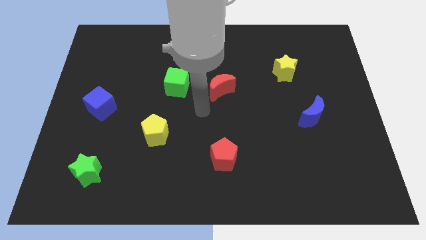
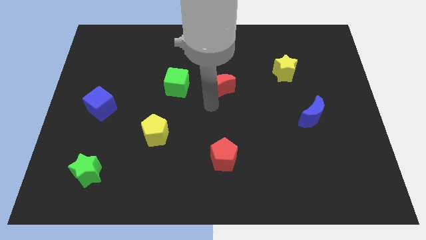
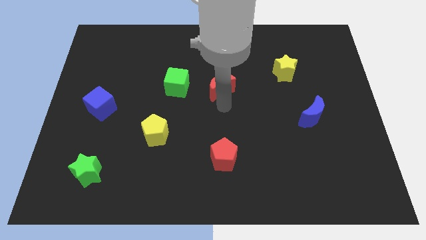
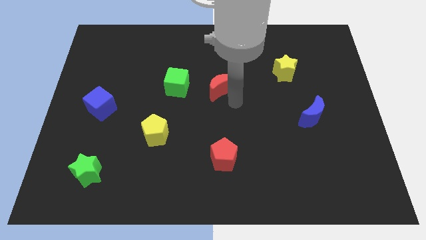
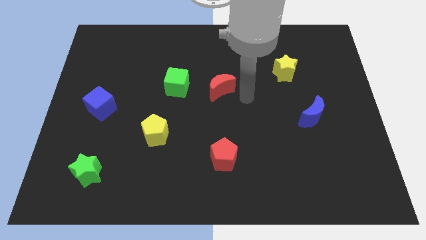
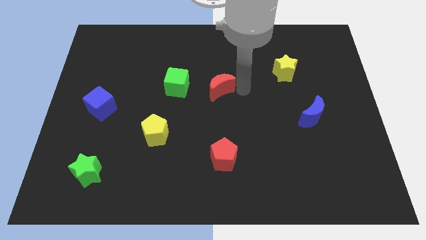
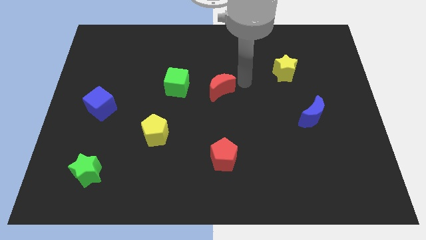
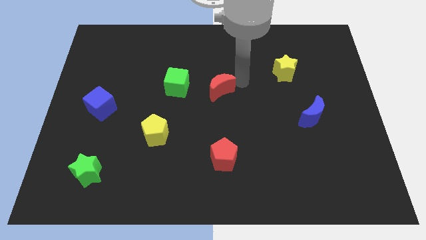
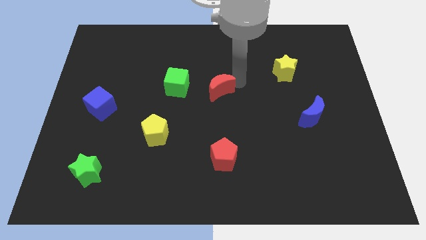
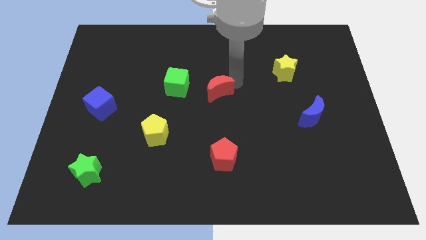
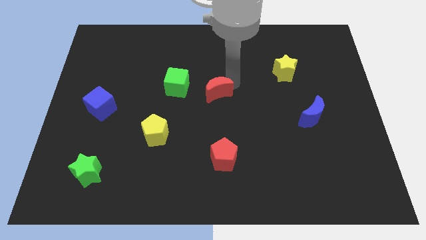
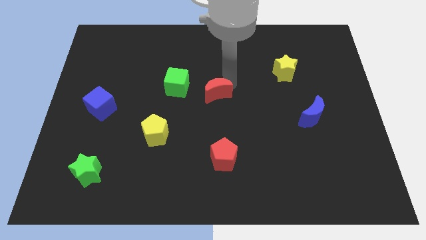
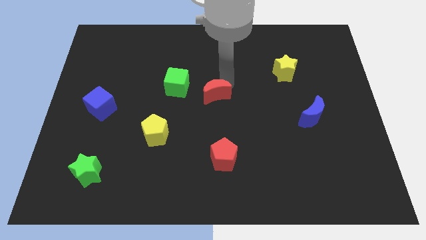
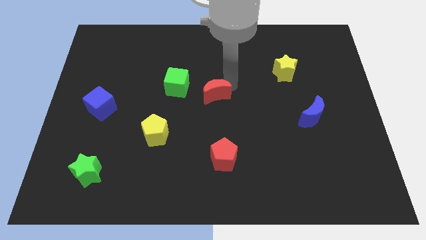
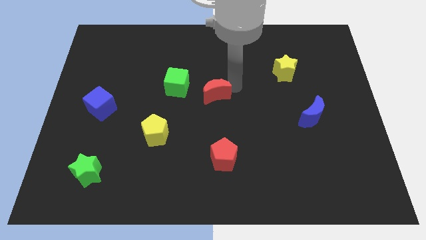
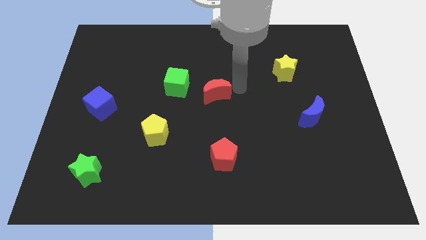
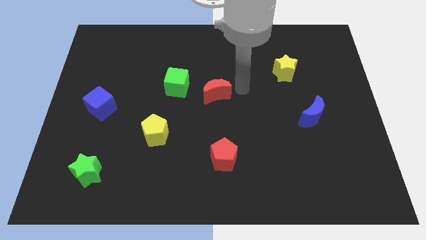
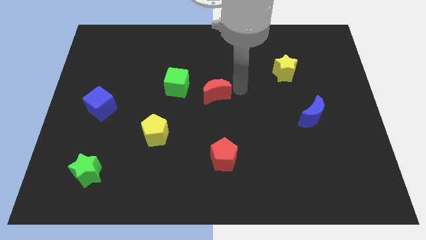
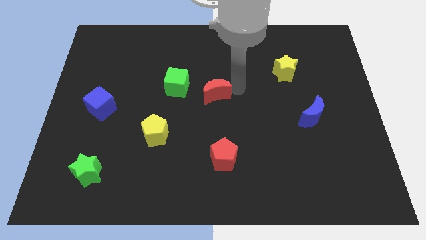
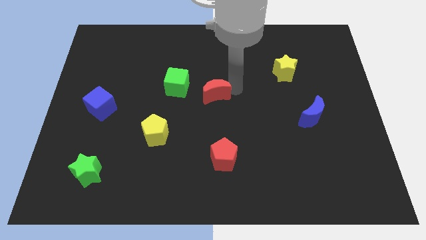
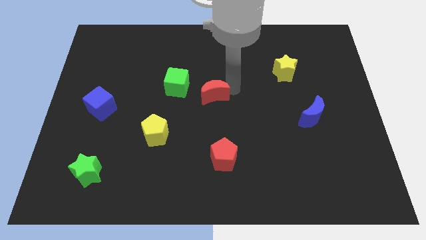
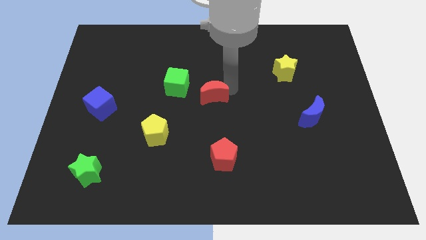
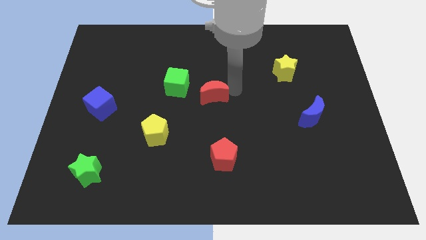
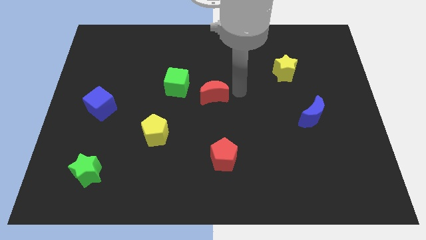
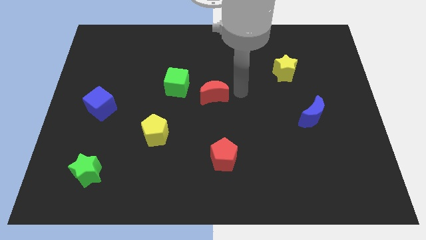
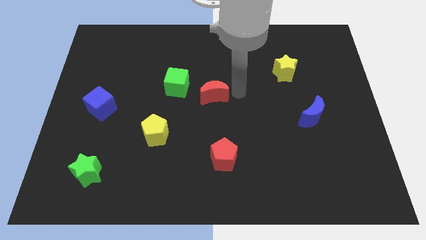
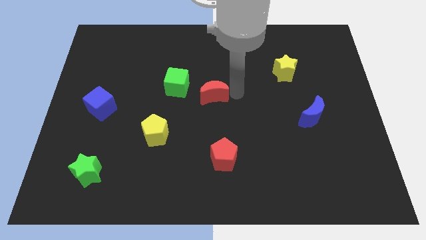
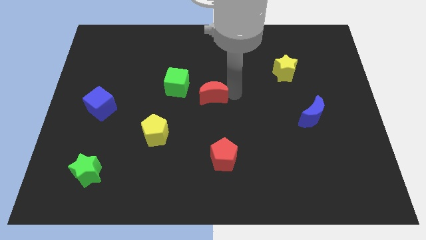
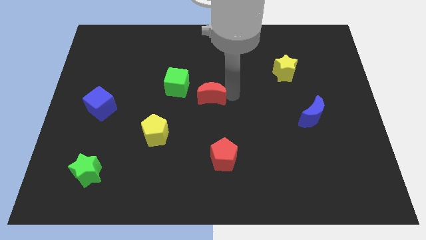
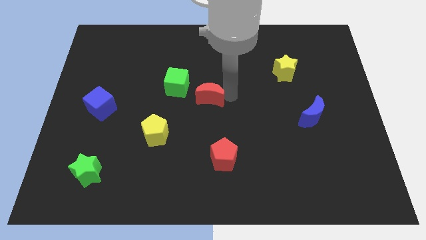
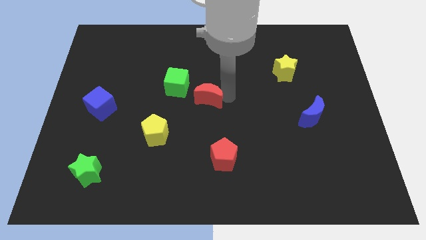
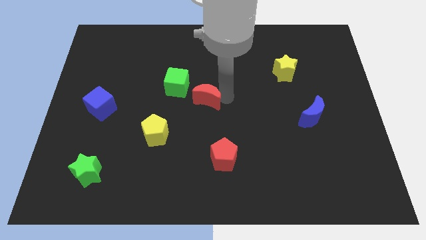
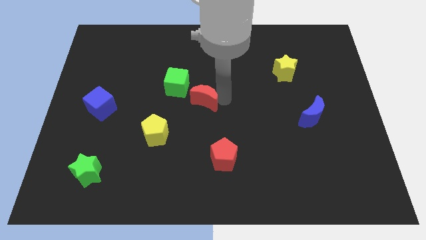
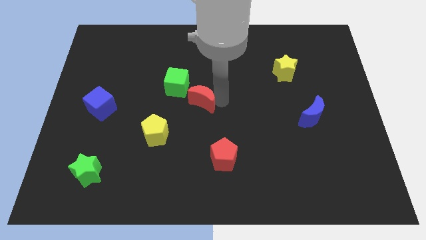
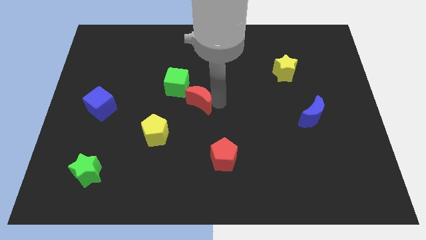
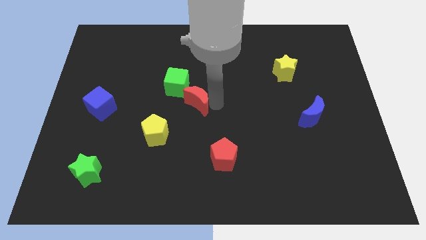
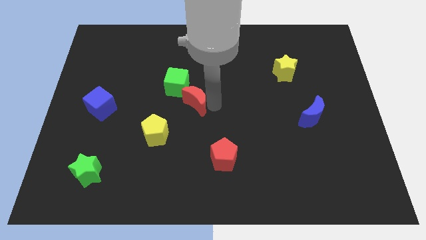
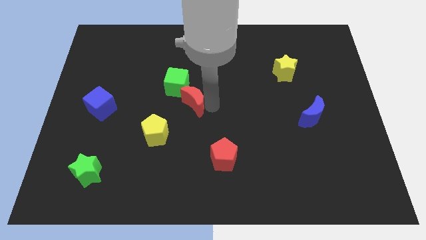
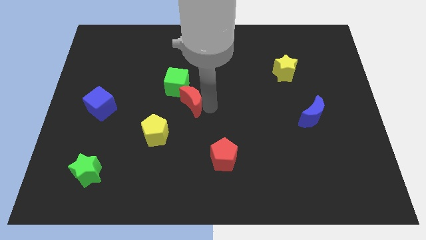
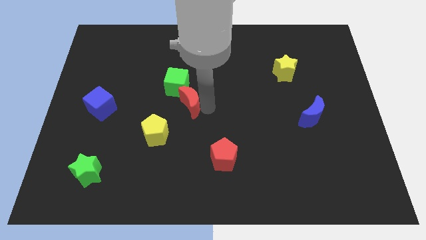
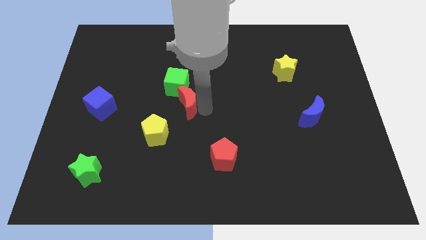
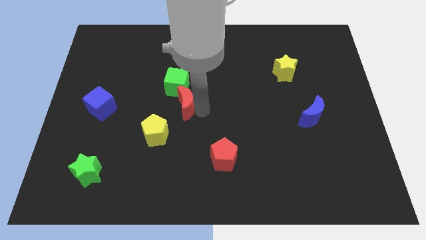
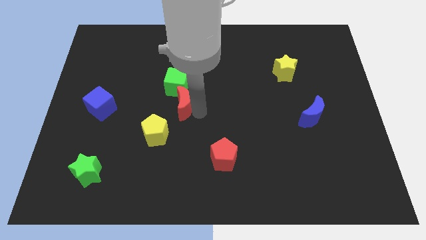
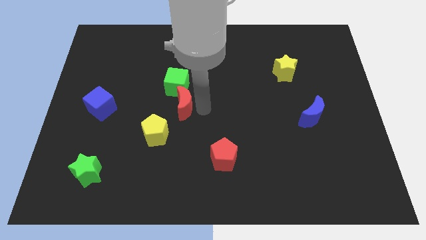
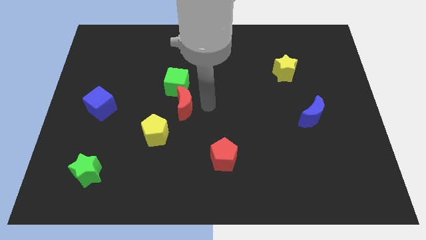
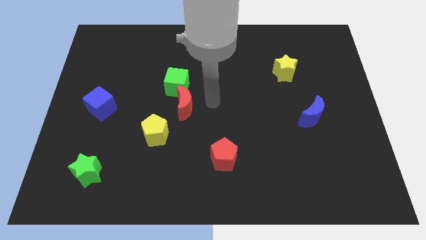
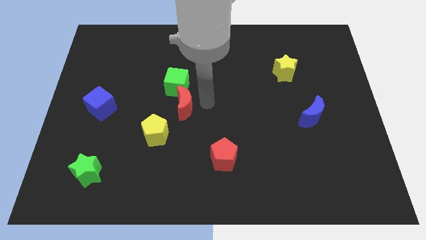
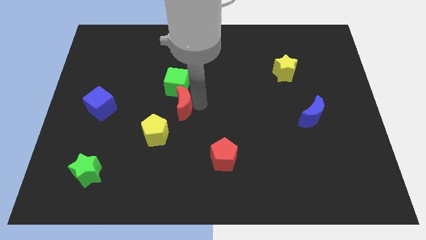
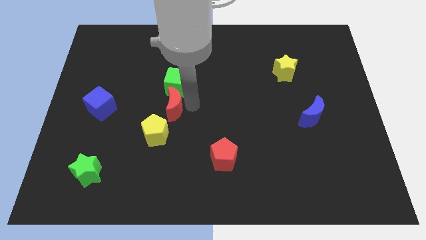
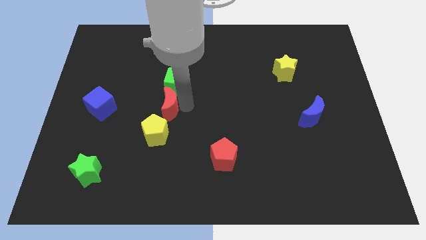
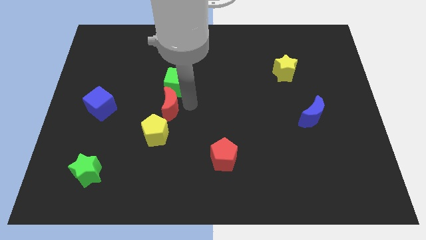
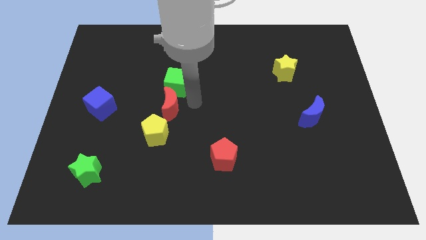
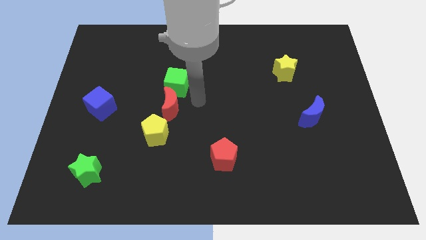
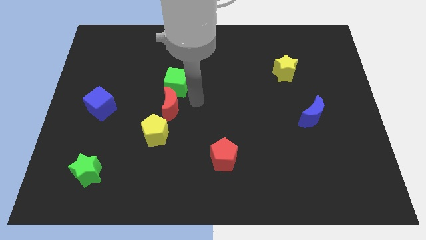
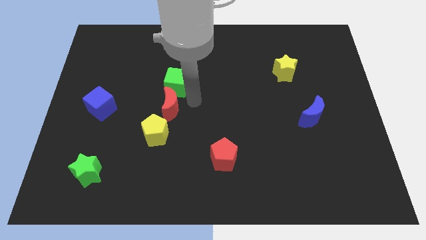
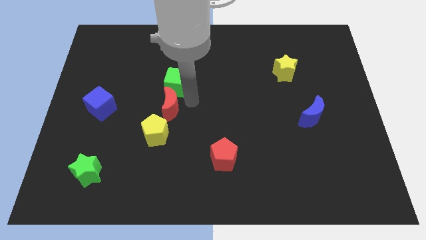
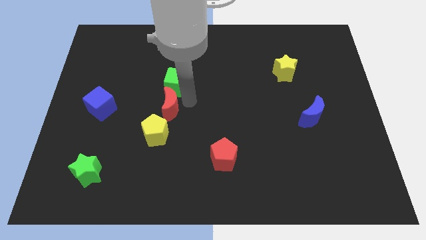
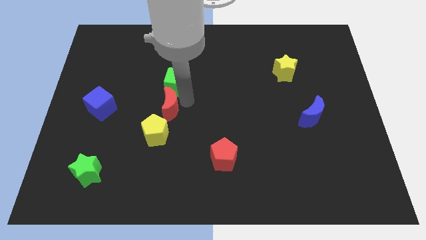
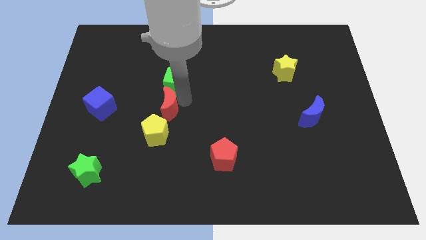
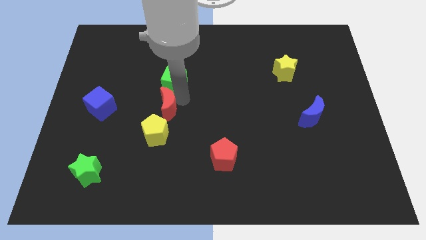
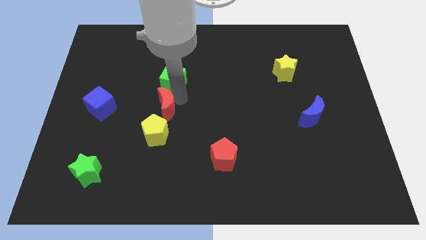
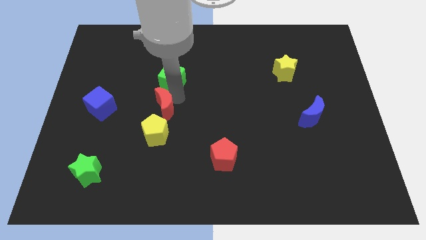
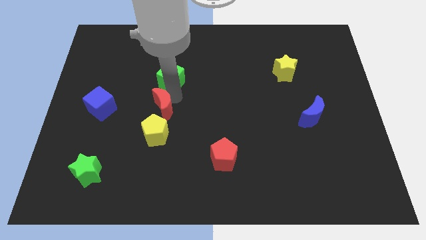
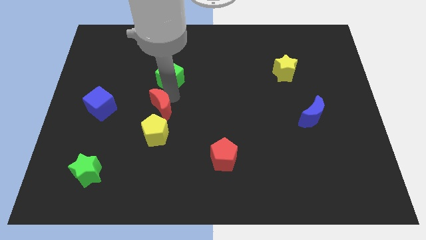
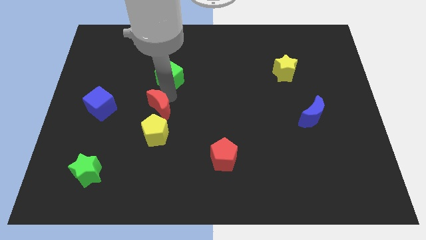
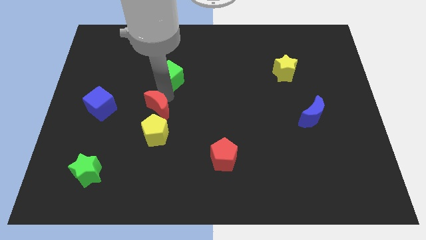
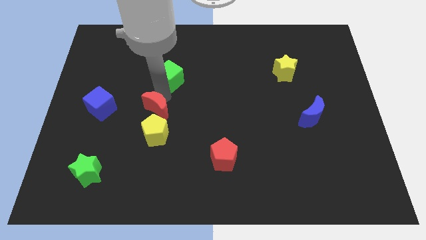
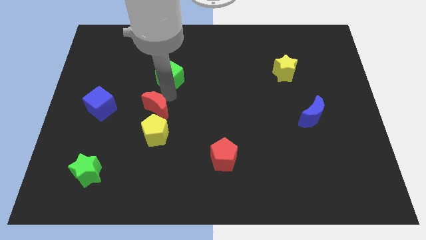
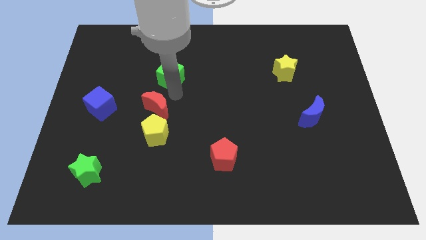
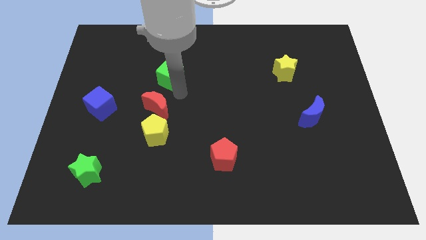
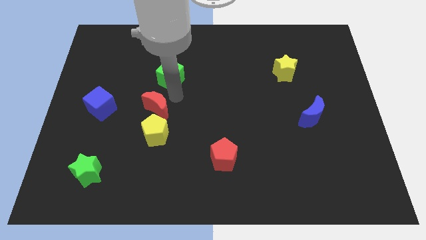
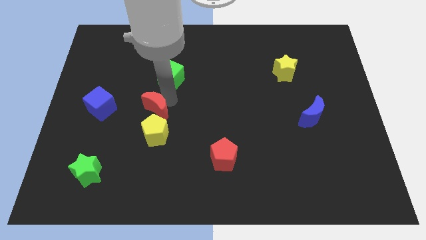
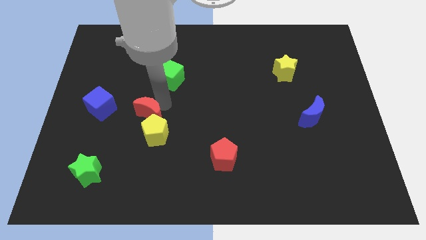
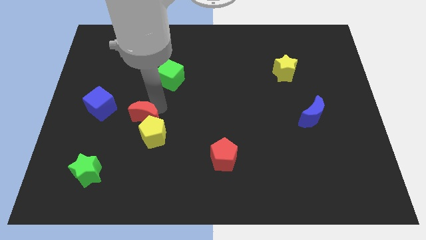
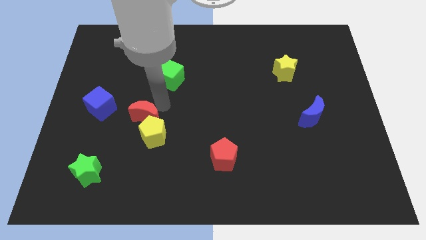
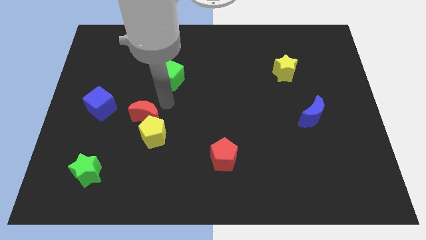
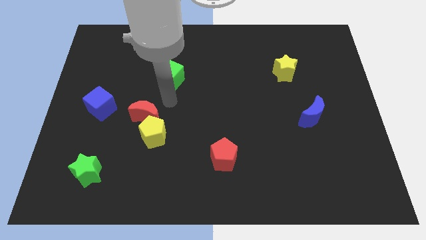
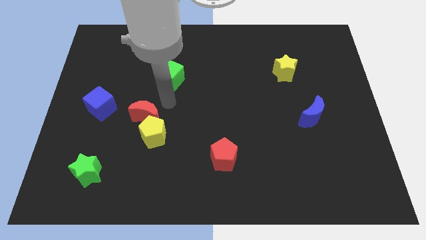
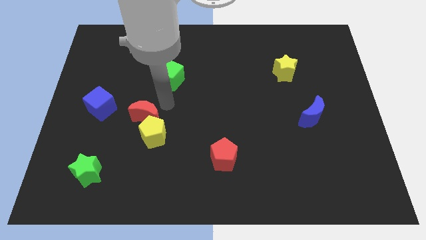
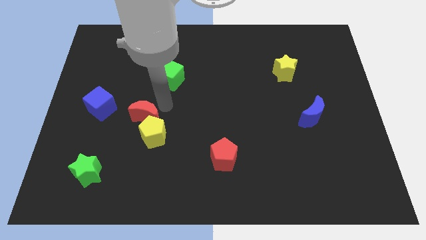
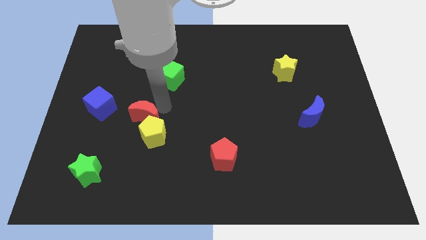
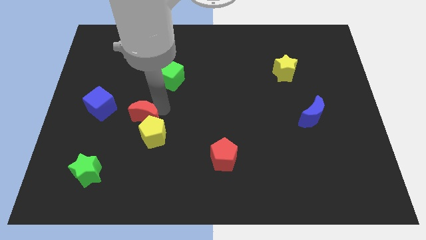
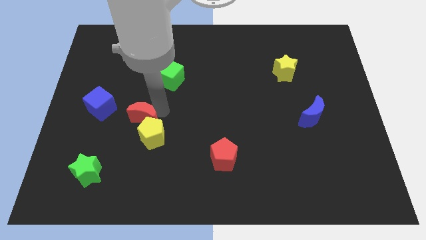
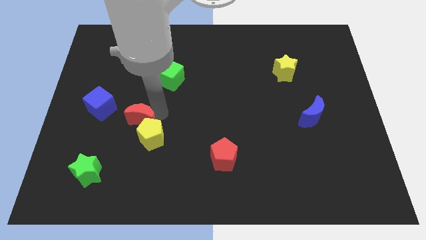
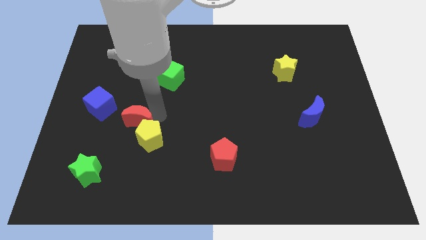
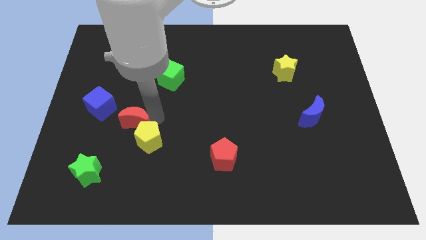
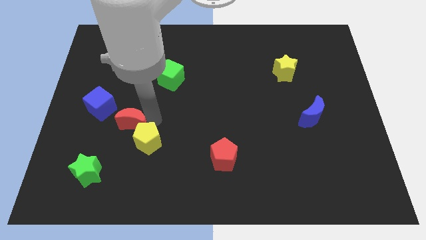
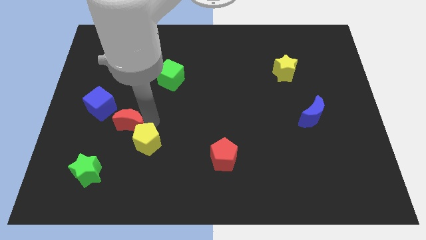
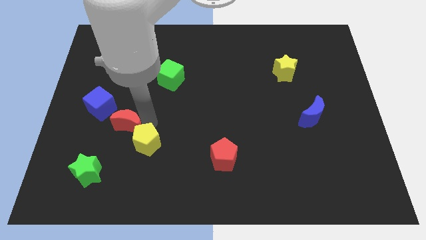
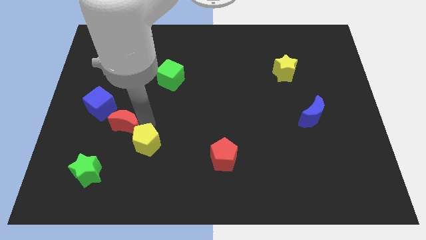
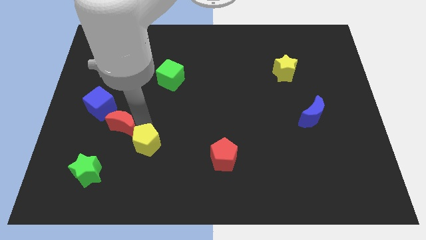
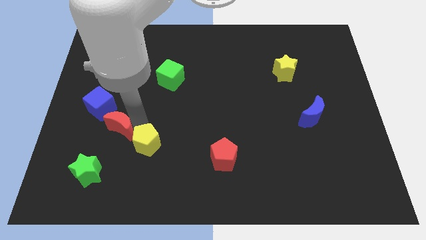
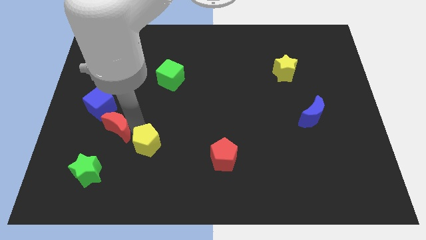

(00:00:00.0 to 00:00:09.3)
push the red moon to the top side of the green star
